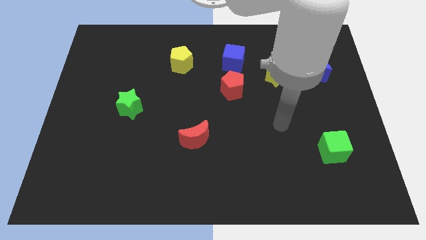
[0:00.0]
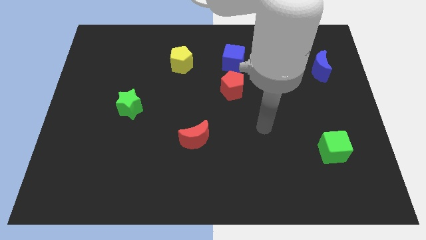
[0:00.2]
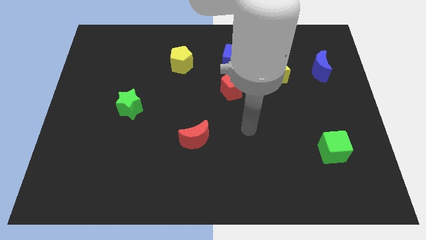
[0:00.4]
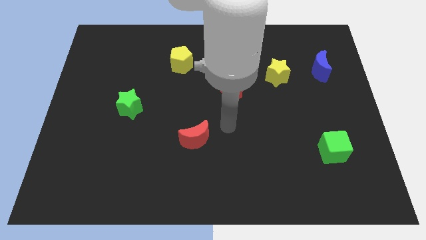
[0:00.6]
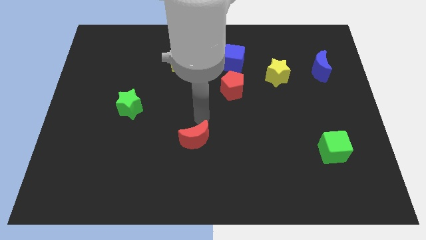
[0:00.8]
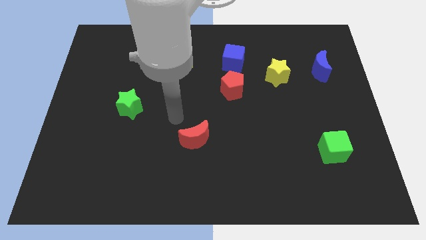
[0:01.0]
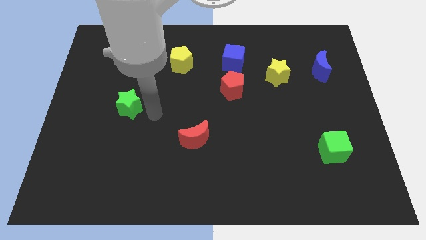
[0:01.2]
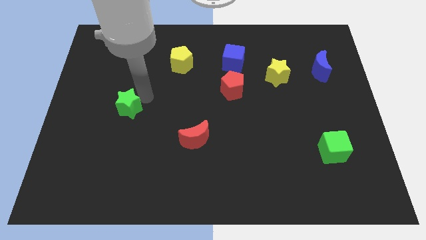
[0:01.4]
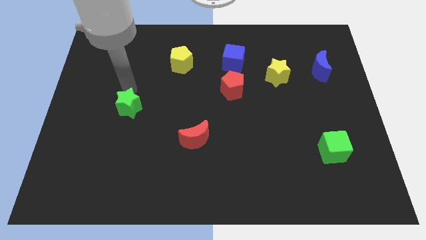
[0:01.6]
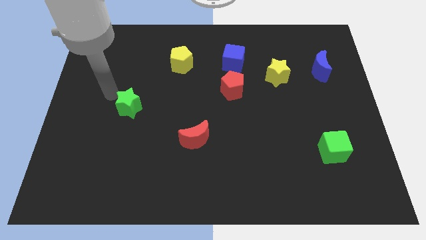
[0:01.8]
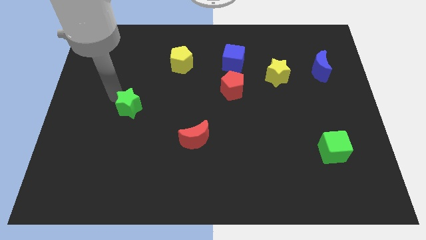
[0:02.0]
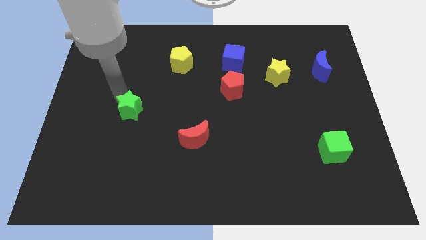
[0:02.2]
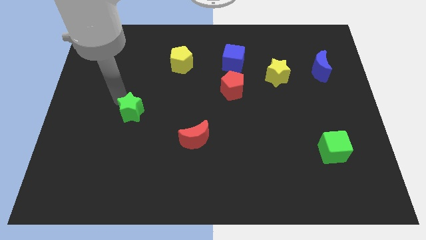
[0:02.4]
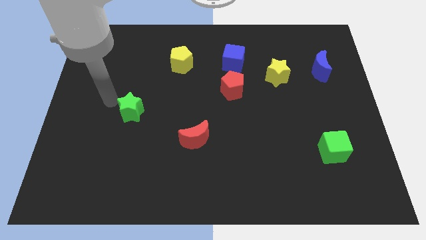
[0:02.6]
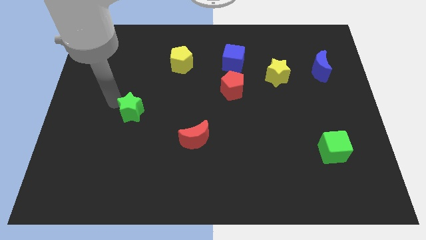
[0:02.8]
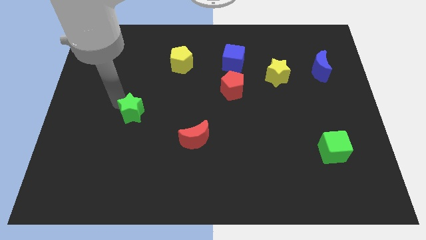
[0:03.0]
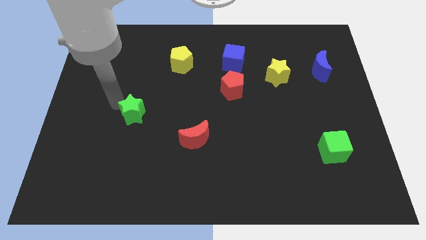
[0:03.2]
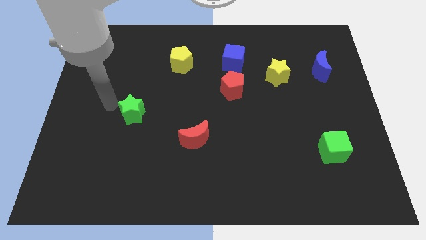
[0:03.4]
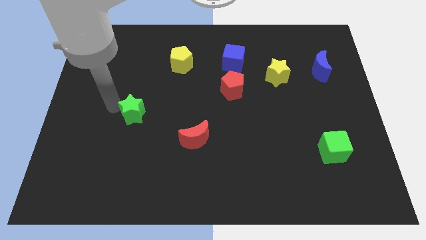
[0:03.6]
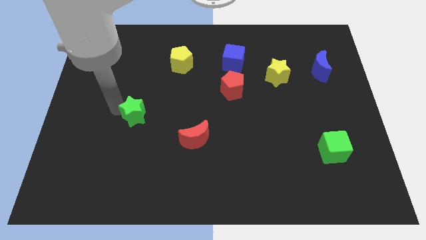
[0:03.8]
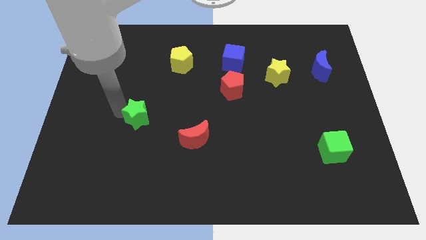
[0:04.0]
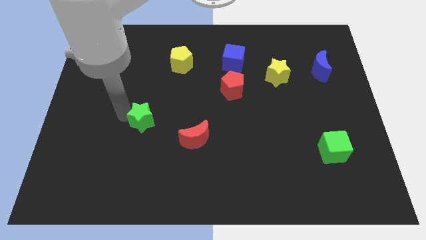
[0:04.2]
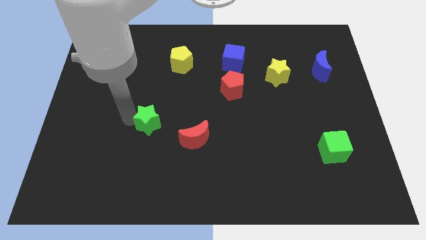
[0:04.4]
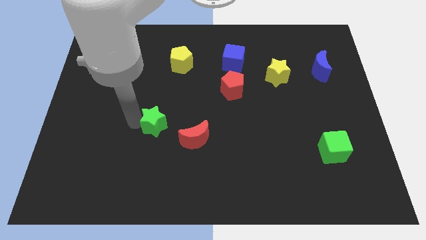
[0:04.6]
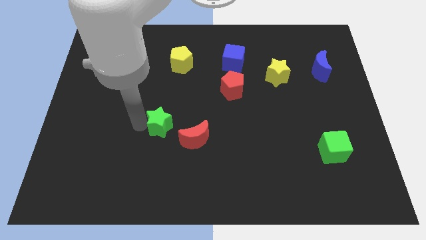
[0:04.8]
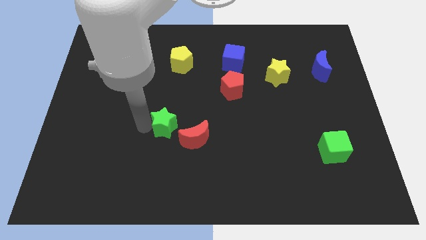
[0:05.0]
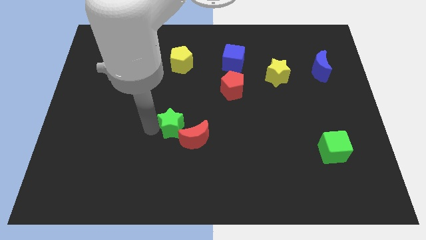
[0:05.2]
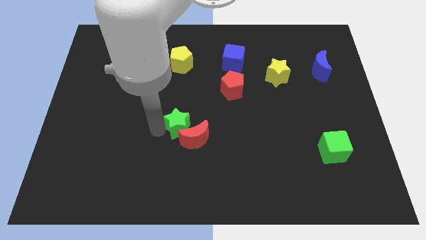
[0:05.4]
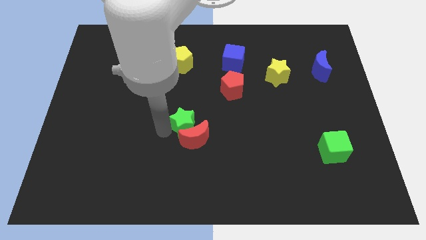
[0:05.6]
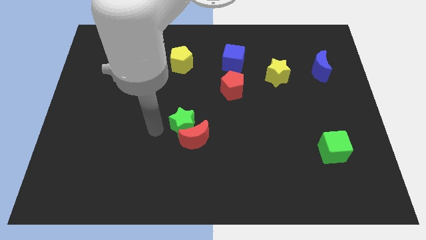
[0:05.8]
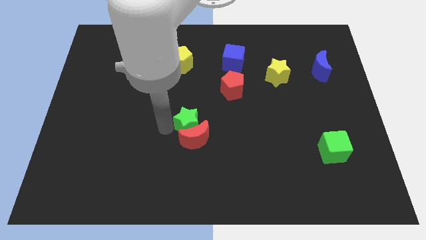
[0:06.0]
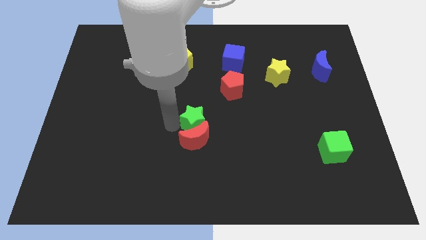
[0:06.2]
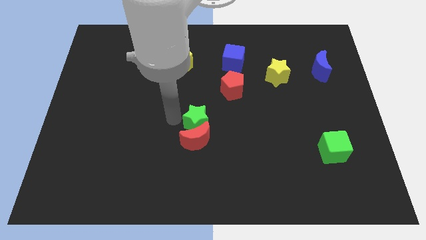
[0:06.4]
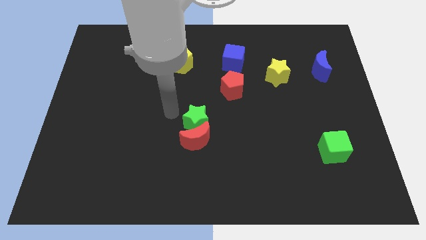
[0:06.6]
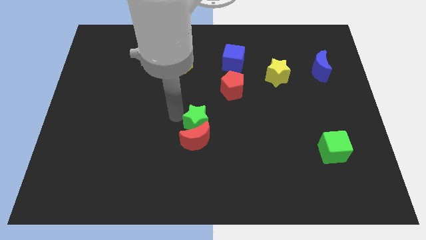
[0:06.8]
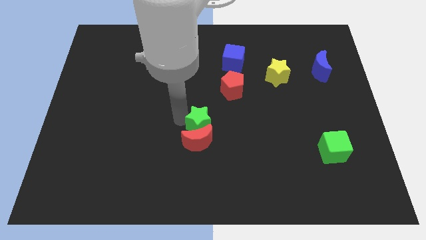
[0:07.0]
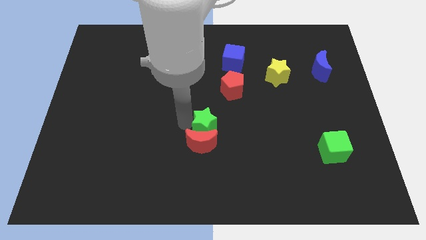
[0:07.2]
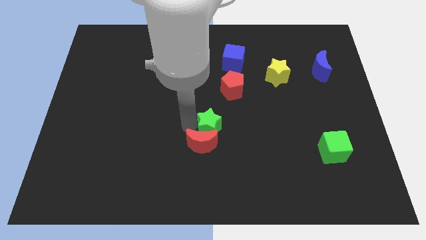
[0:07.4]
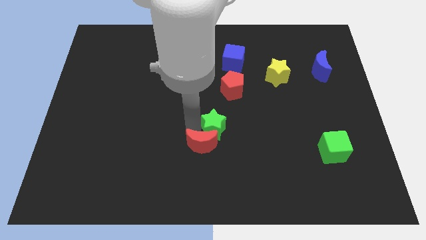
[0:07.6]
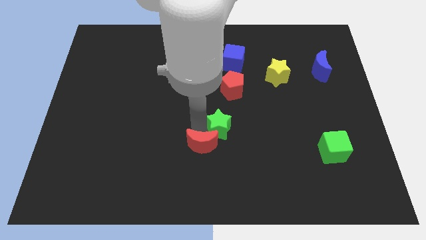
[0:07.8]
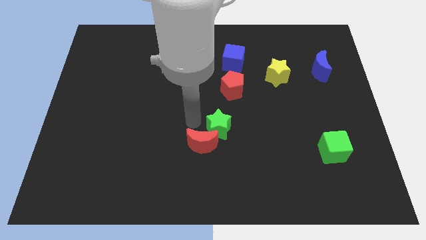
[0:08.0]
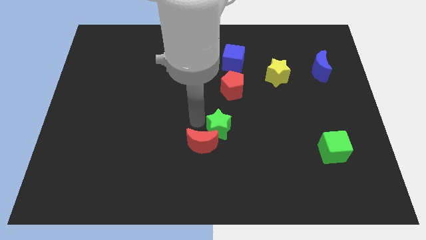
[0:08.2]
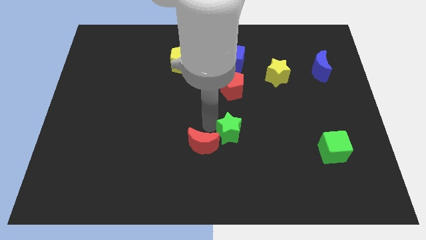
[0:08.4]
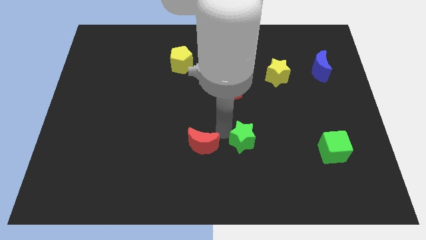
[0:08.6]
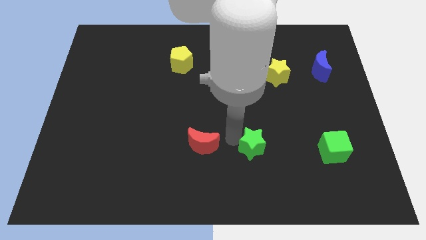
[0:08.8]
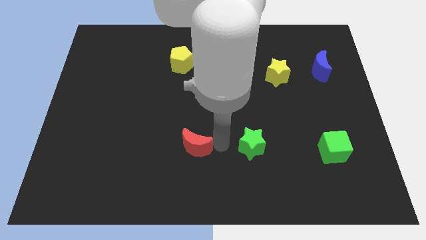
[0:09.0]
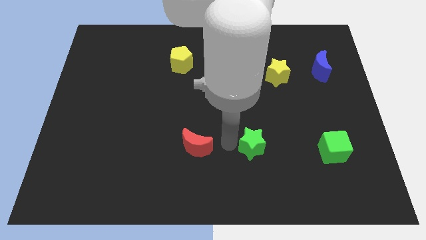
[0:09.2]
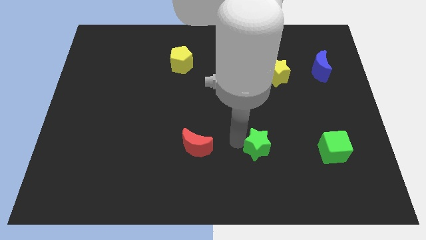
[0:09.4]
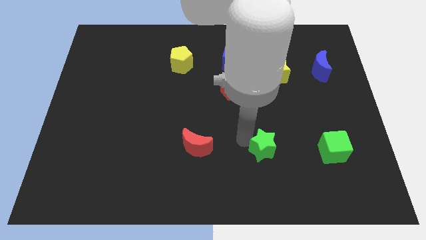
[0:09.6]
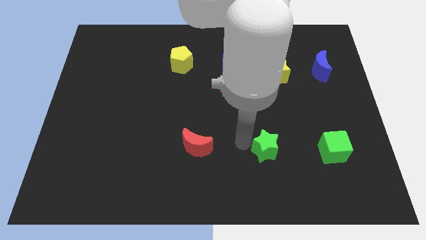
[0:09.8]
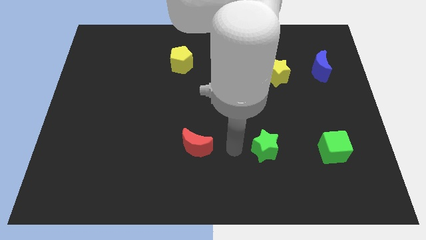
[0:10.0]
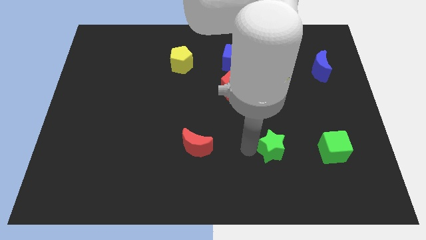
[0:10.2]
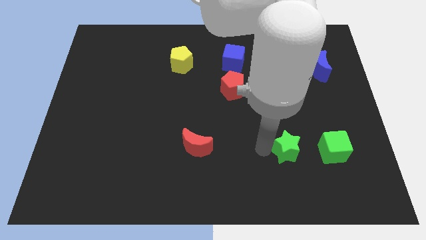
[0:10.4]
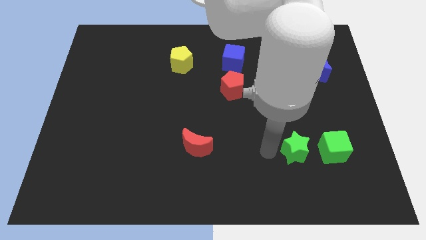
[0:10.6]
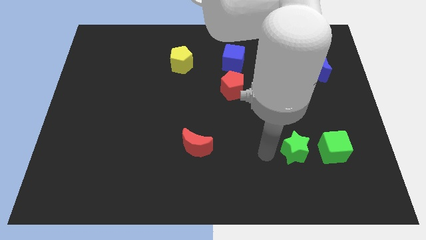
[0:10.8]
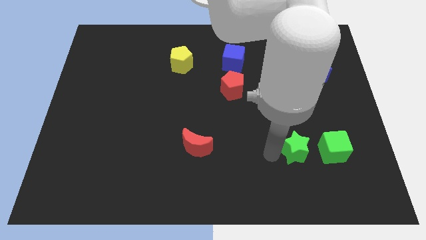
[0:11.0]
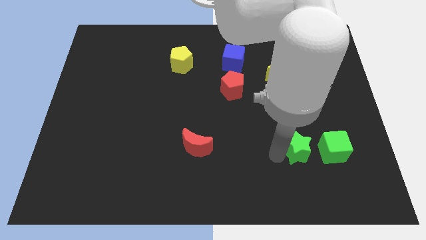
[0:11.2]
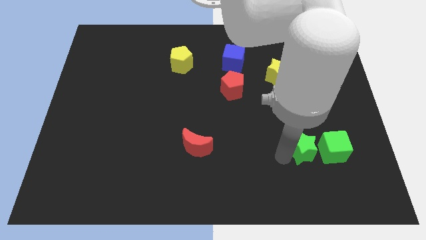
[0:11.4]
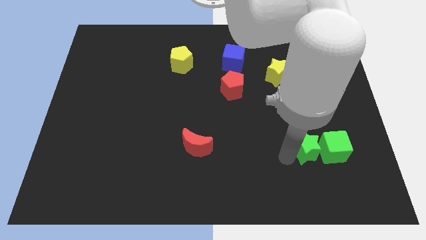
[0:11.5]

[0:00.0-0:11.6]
put the green star next to the green cube

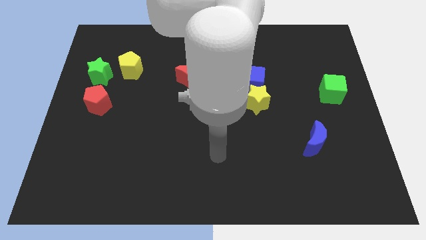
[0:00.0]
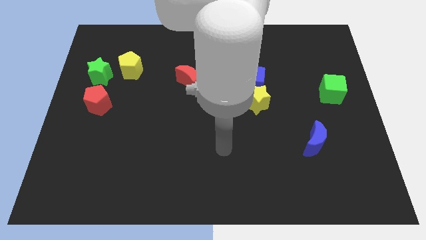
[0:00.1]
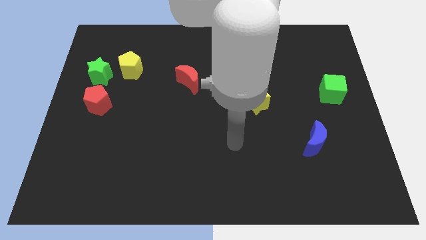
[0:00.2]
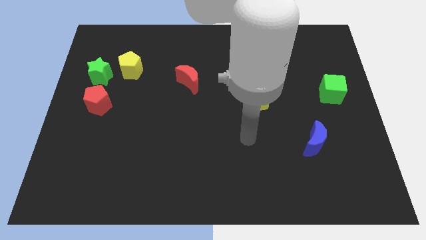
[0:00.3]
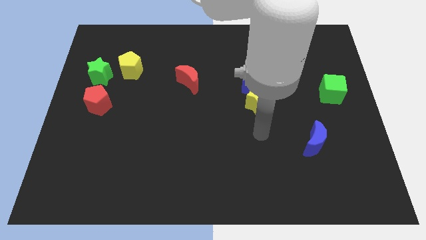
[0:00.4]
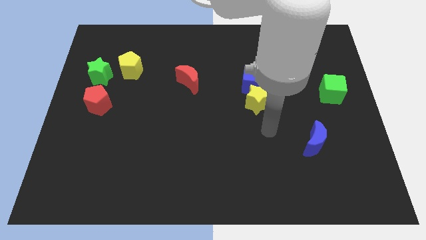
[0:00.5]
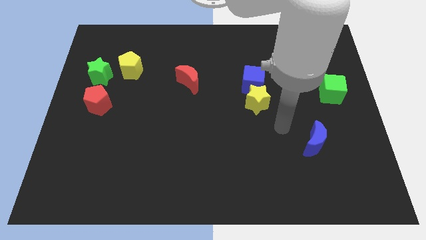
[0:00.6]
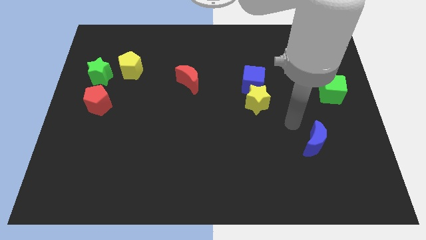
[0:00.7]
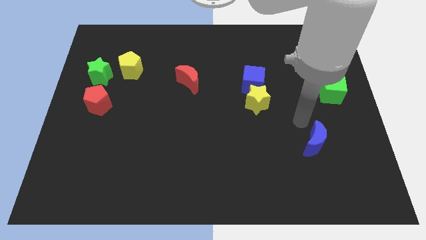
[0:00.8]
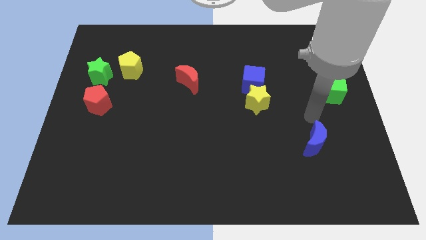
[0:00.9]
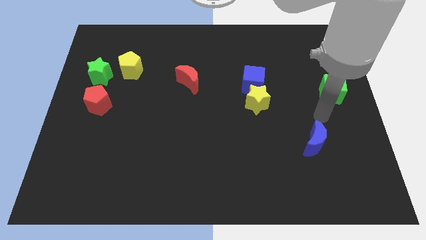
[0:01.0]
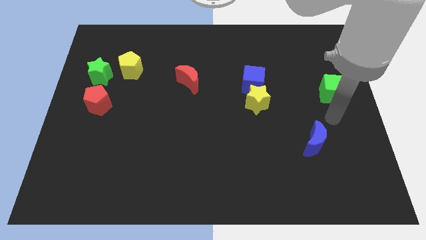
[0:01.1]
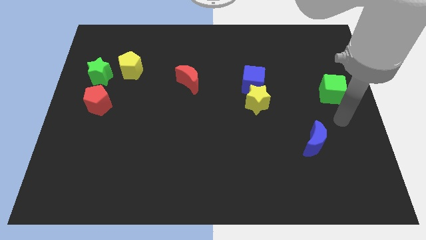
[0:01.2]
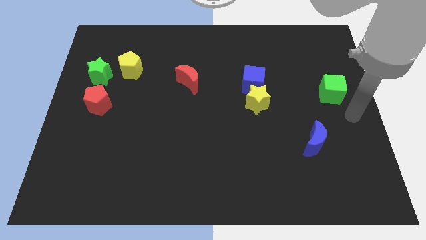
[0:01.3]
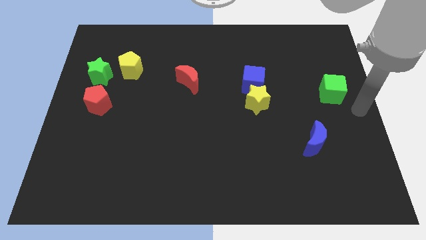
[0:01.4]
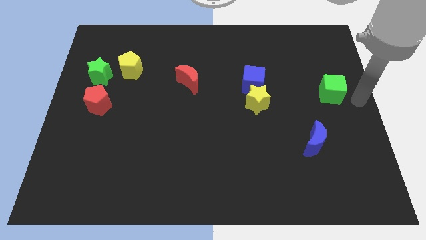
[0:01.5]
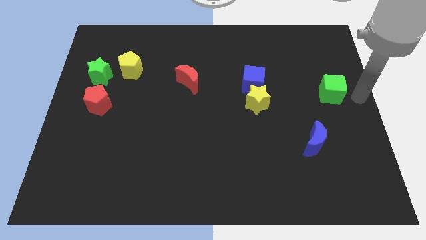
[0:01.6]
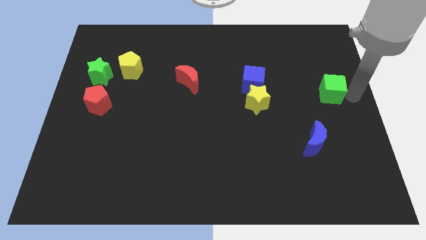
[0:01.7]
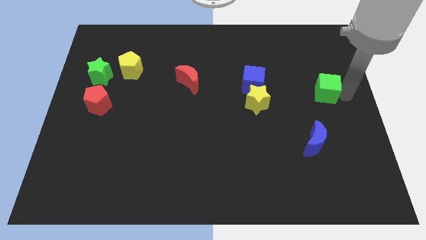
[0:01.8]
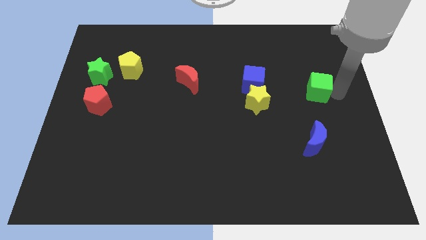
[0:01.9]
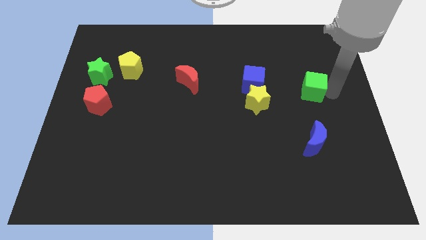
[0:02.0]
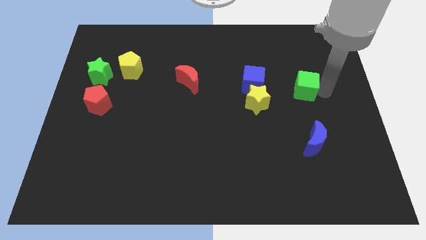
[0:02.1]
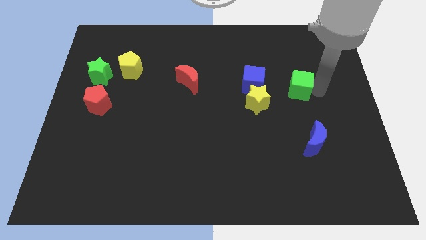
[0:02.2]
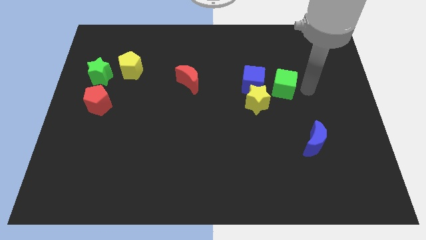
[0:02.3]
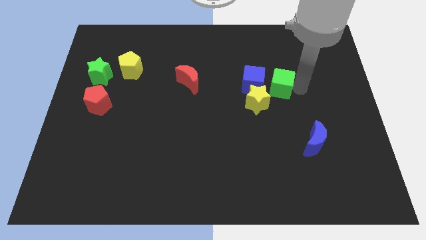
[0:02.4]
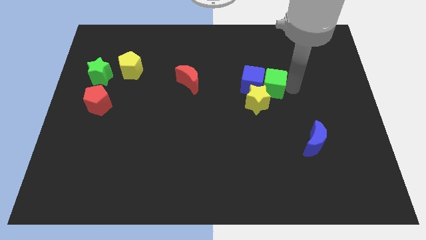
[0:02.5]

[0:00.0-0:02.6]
put the green cube next to the blue cube
